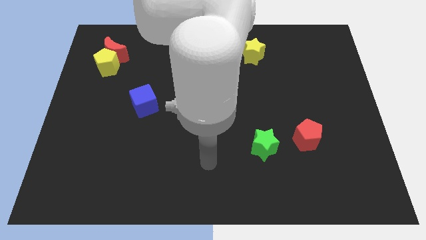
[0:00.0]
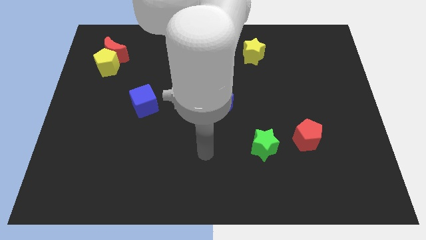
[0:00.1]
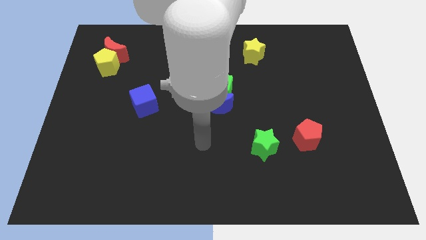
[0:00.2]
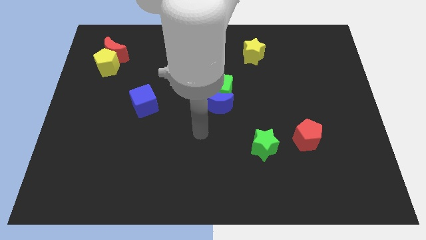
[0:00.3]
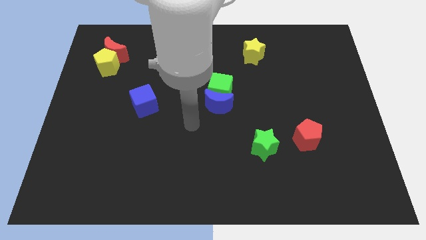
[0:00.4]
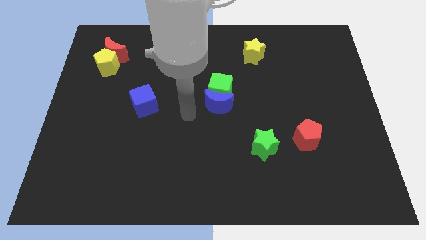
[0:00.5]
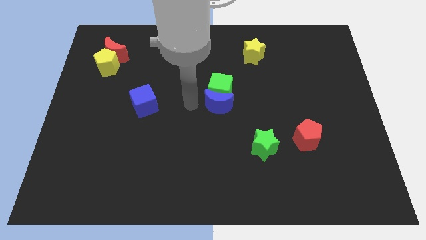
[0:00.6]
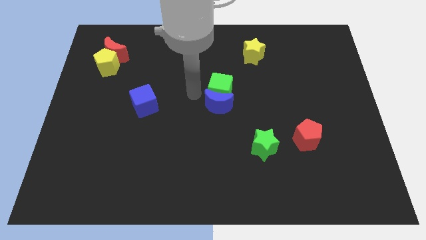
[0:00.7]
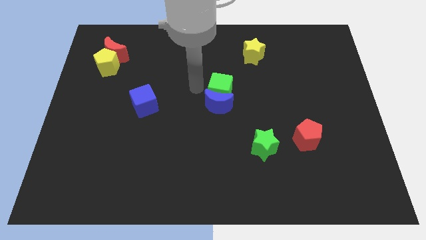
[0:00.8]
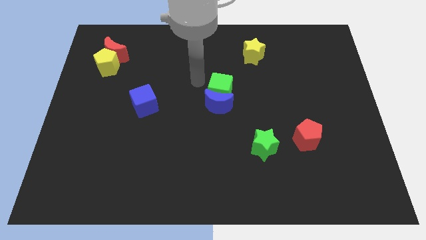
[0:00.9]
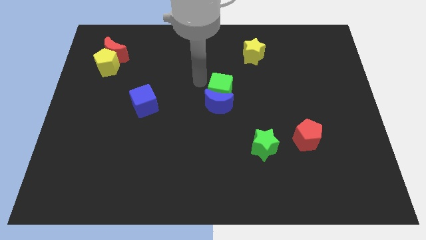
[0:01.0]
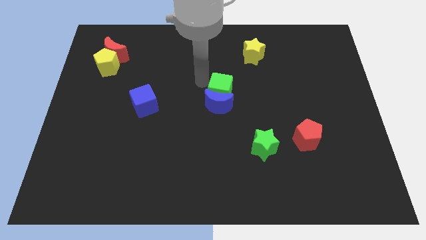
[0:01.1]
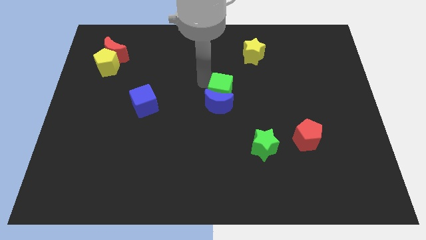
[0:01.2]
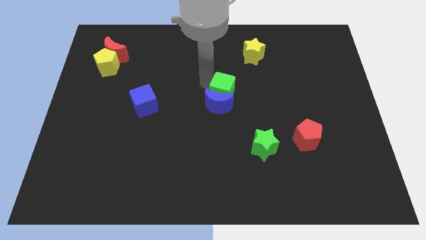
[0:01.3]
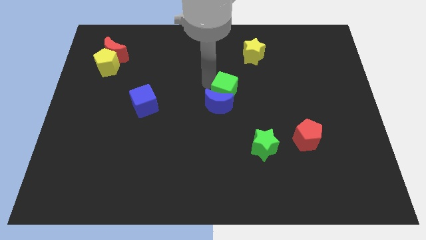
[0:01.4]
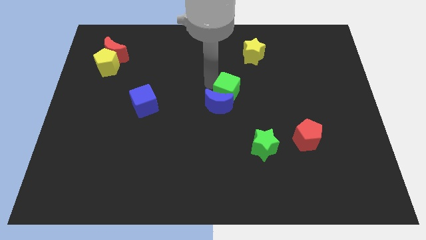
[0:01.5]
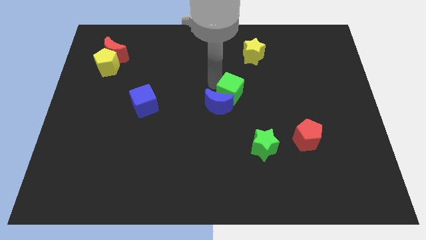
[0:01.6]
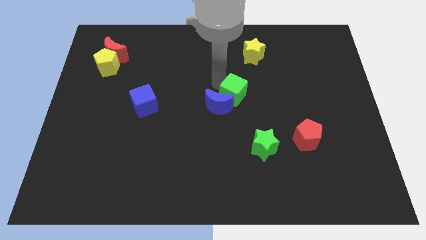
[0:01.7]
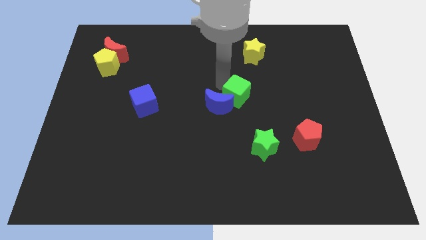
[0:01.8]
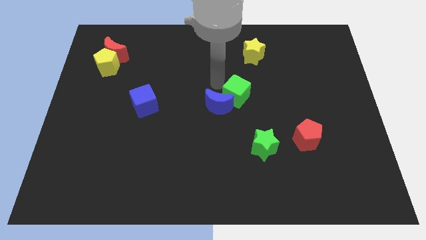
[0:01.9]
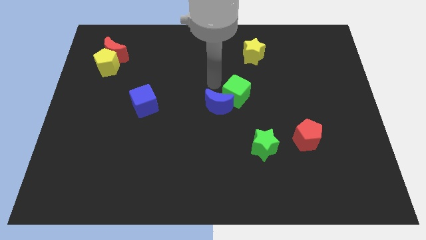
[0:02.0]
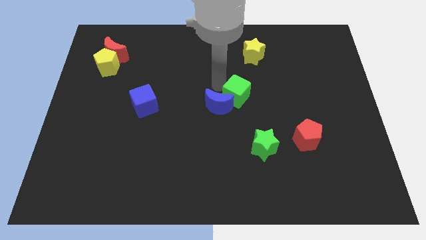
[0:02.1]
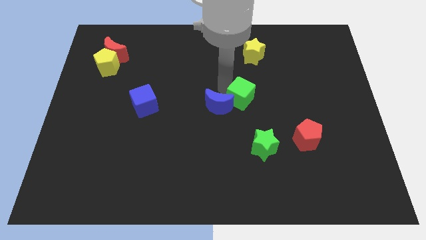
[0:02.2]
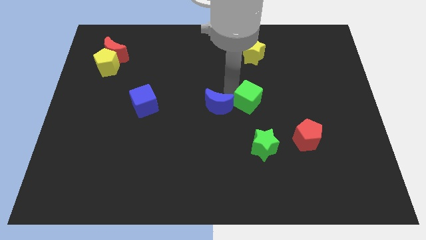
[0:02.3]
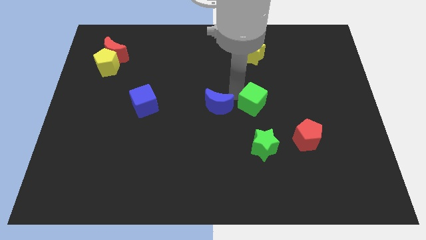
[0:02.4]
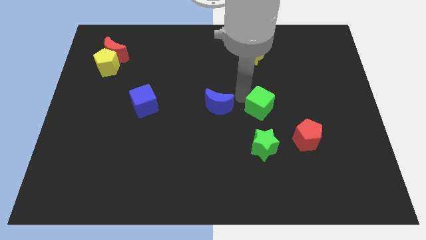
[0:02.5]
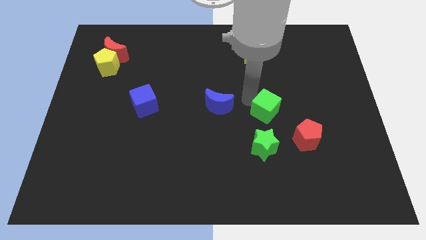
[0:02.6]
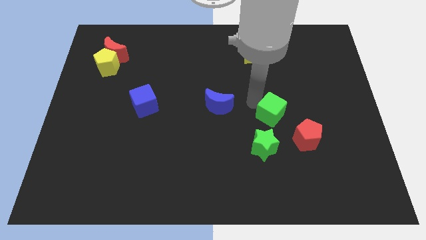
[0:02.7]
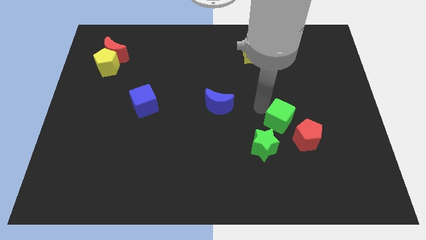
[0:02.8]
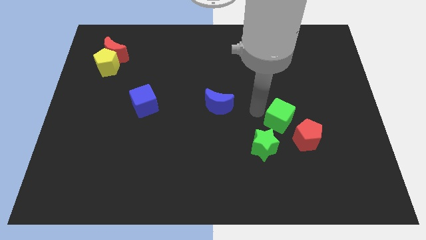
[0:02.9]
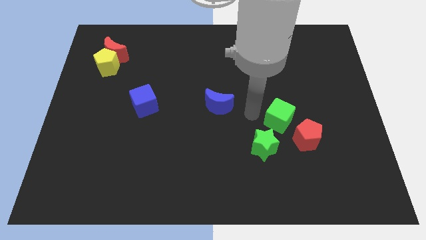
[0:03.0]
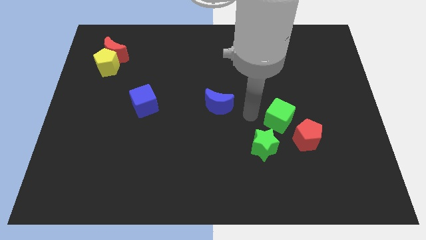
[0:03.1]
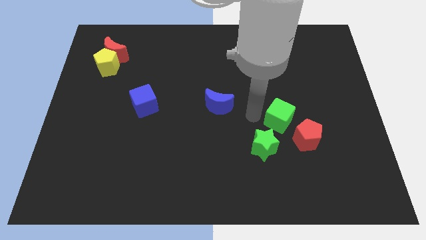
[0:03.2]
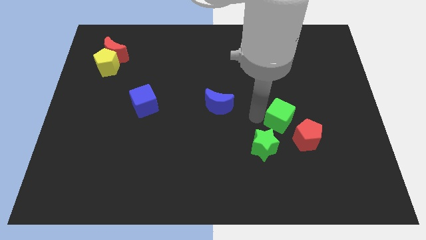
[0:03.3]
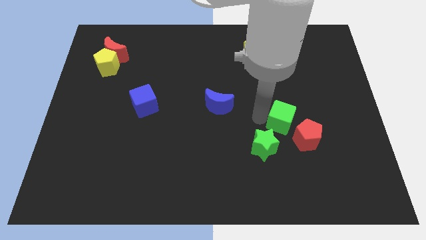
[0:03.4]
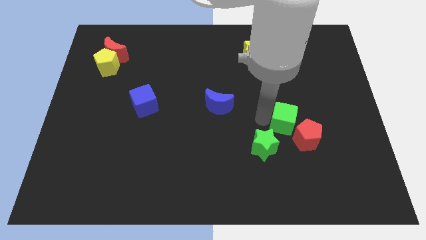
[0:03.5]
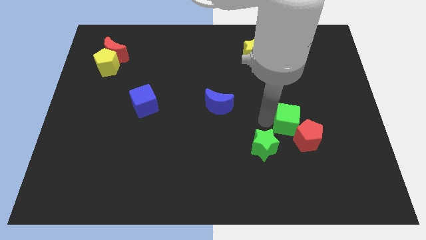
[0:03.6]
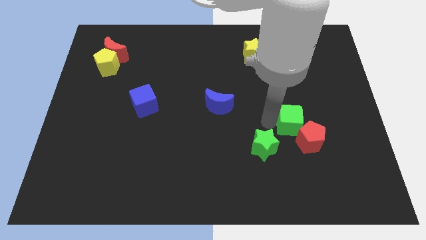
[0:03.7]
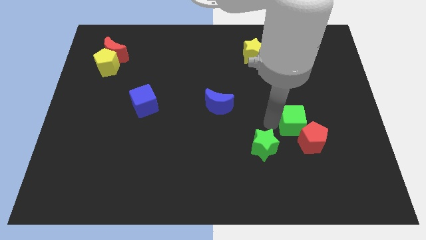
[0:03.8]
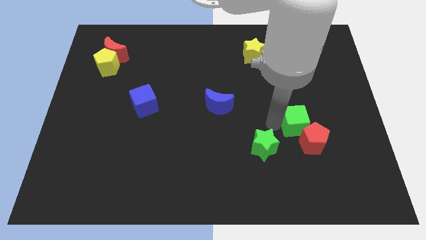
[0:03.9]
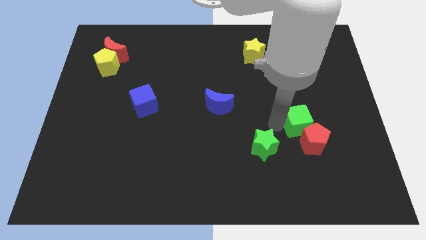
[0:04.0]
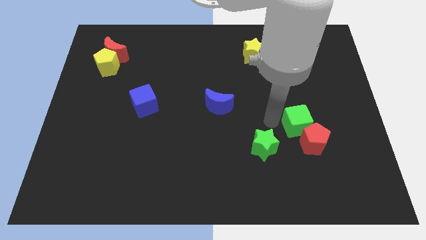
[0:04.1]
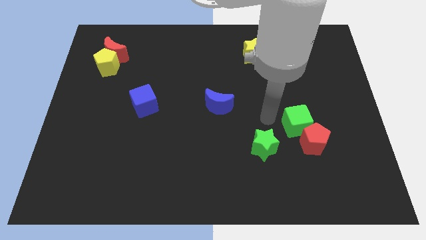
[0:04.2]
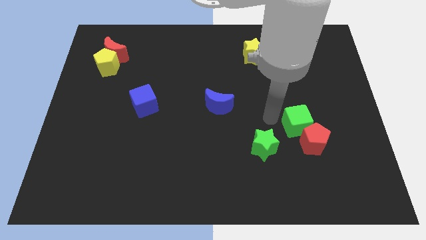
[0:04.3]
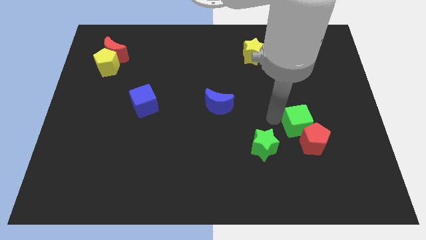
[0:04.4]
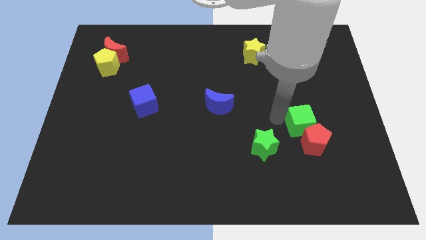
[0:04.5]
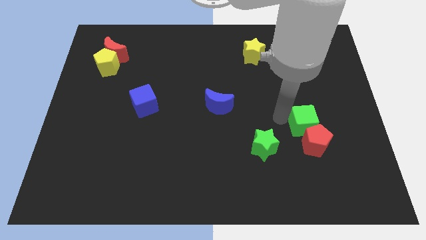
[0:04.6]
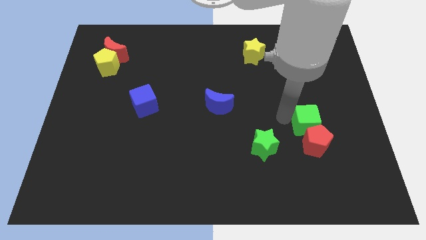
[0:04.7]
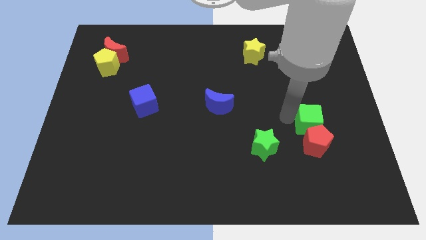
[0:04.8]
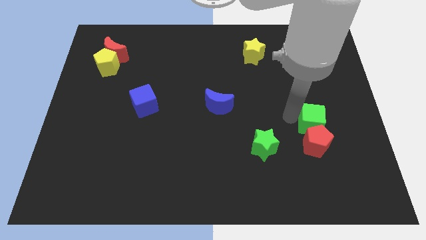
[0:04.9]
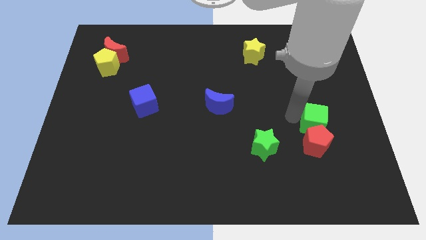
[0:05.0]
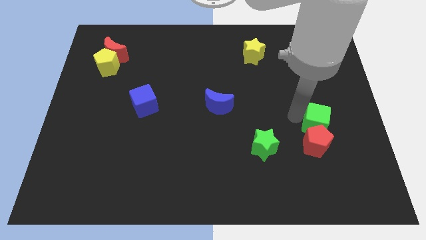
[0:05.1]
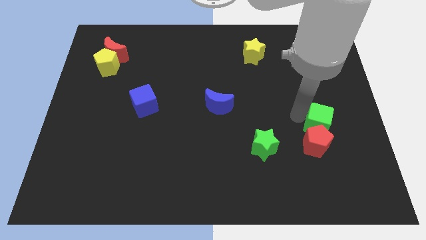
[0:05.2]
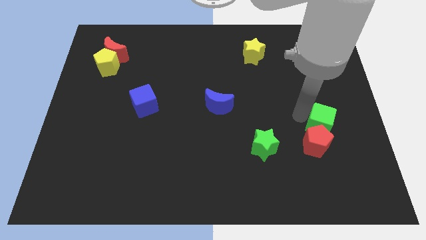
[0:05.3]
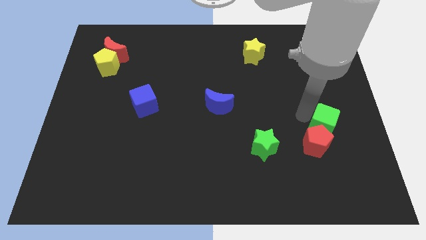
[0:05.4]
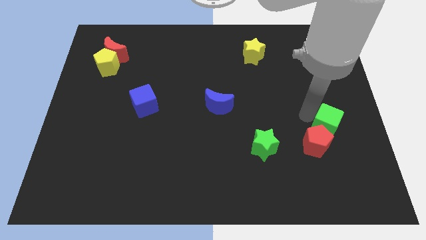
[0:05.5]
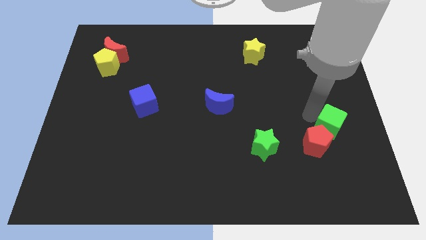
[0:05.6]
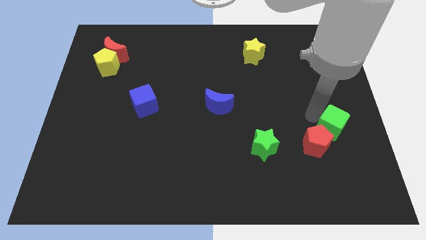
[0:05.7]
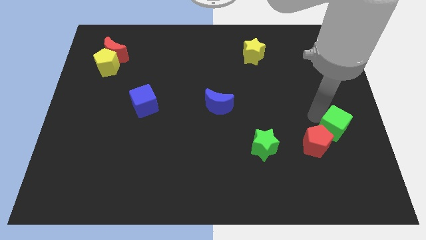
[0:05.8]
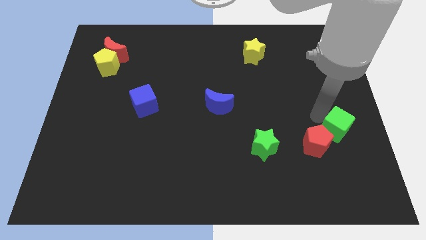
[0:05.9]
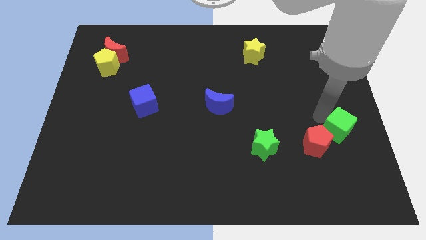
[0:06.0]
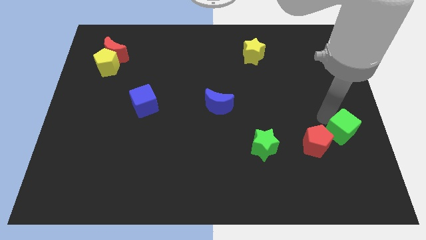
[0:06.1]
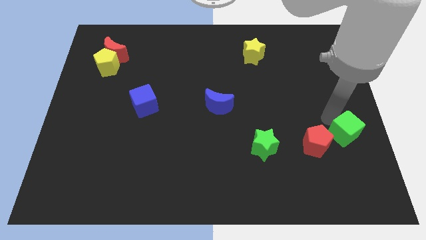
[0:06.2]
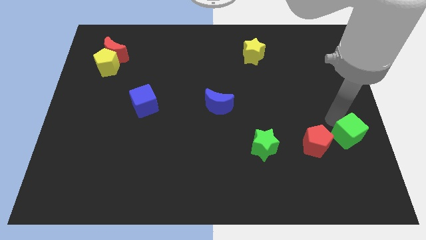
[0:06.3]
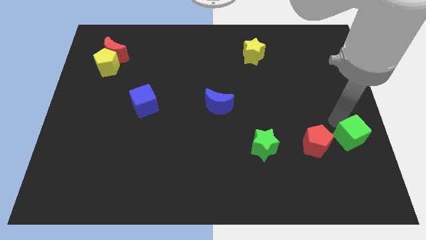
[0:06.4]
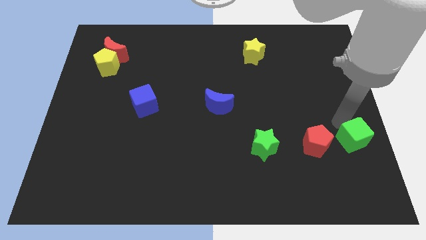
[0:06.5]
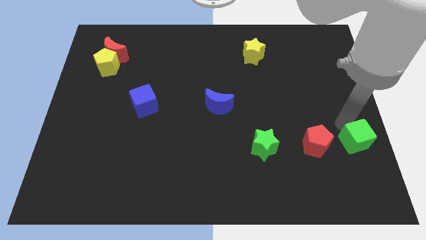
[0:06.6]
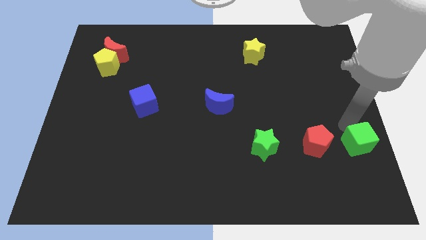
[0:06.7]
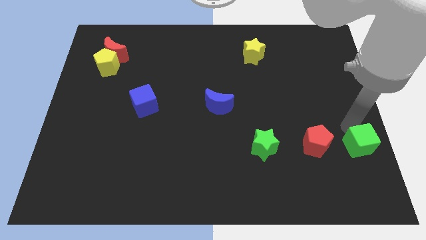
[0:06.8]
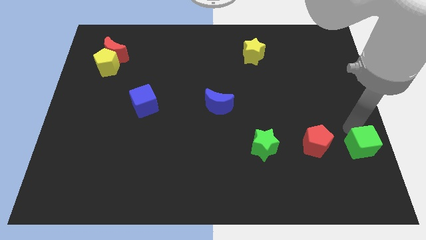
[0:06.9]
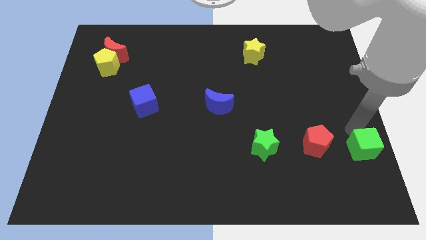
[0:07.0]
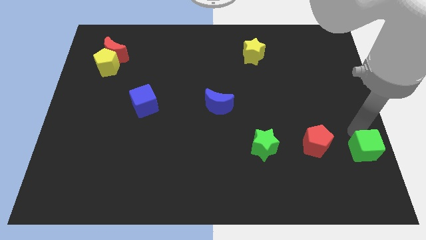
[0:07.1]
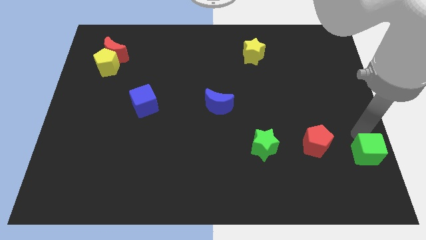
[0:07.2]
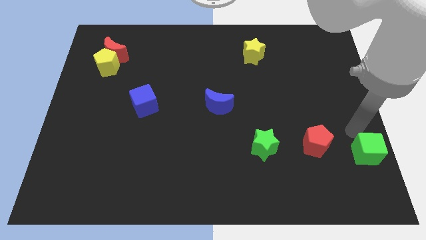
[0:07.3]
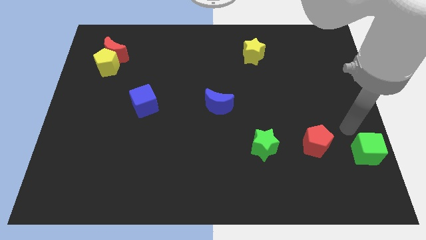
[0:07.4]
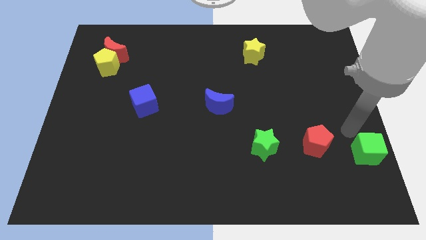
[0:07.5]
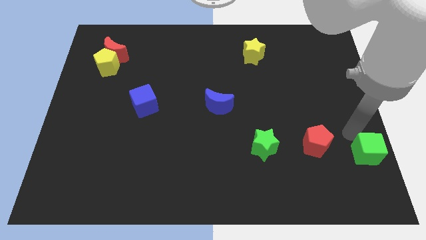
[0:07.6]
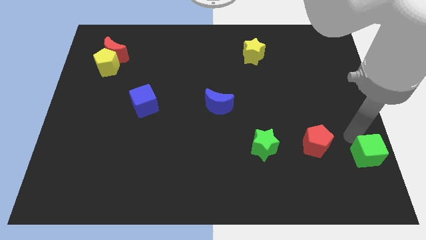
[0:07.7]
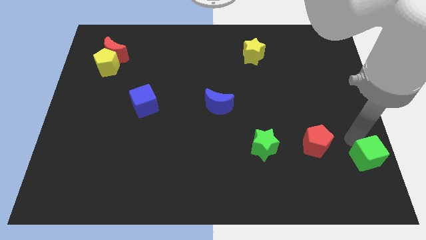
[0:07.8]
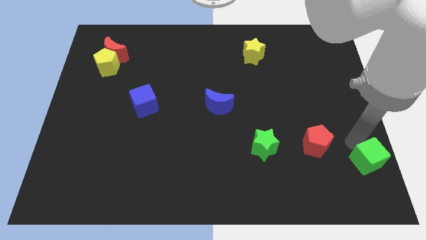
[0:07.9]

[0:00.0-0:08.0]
put the green cube to the bottom right of the board
